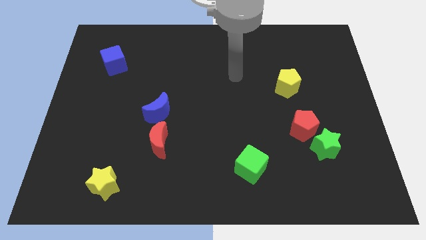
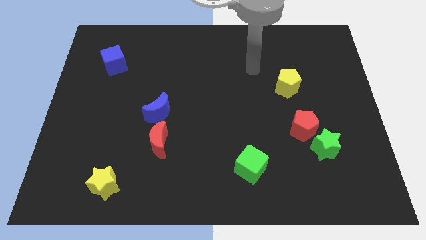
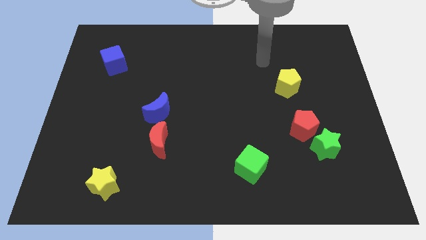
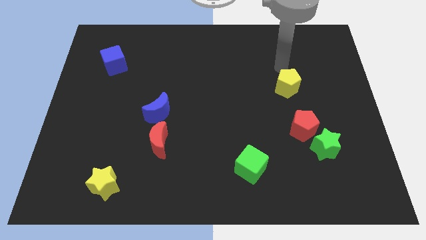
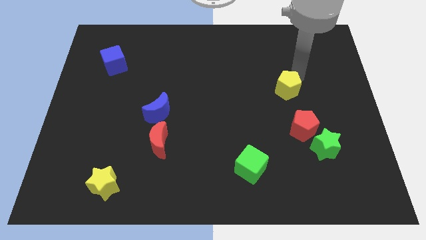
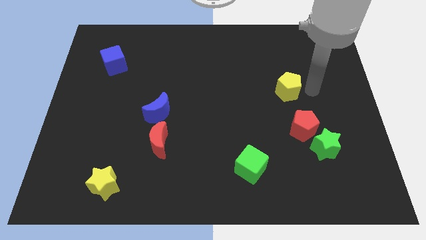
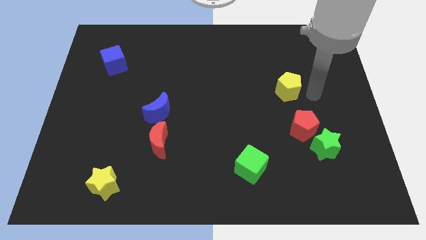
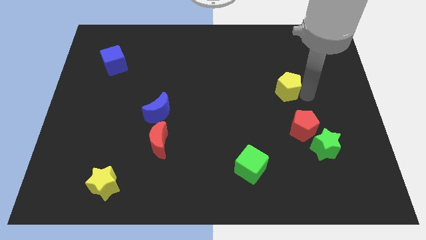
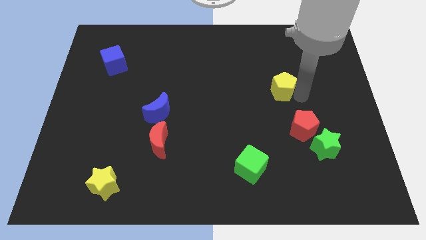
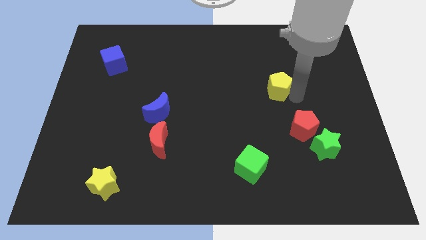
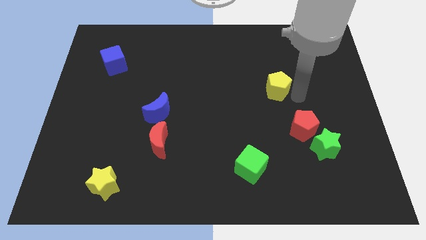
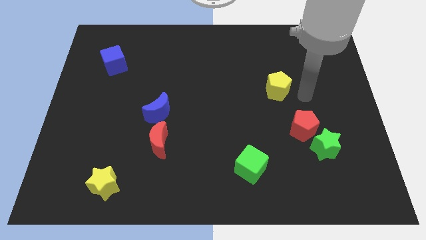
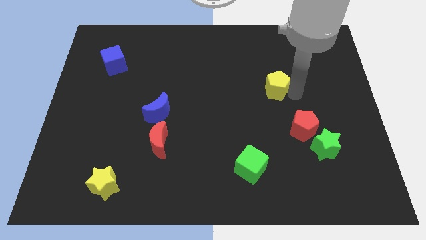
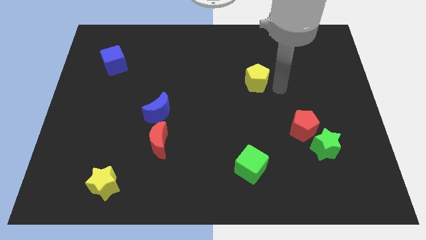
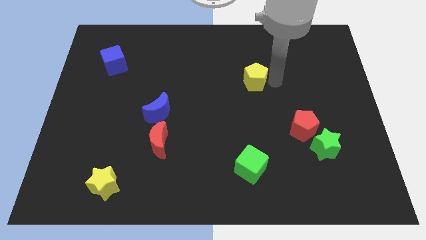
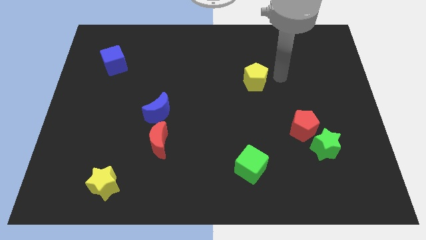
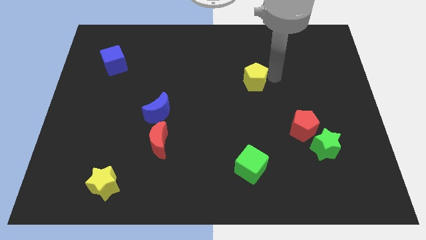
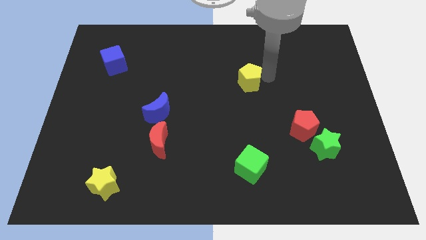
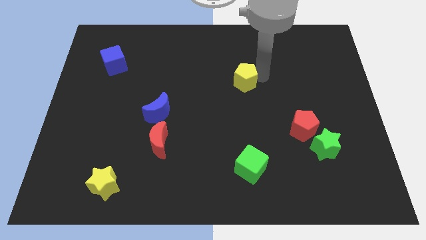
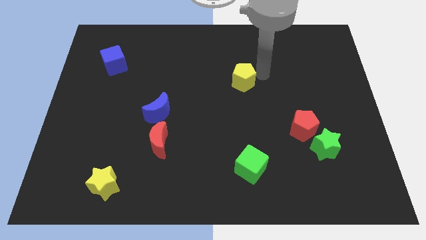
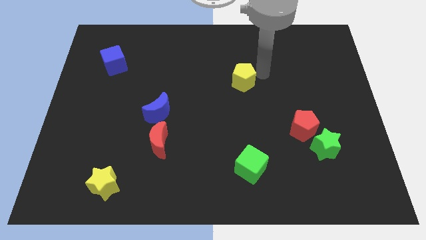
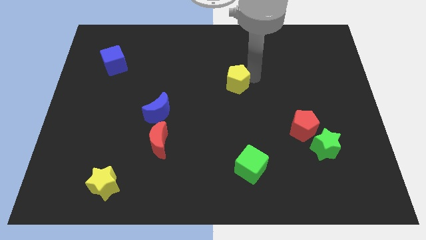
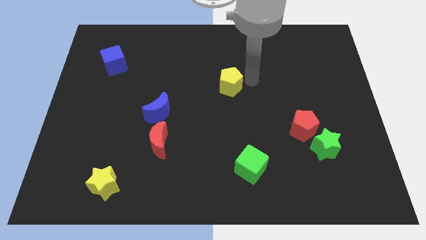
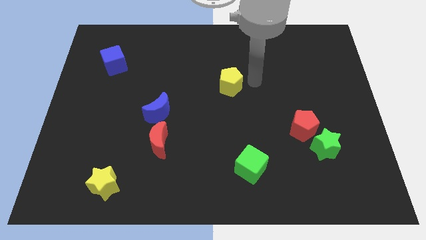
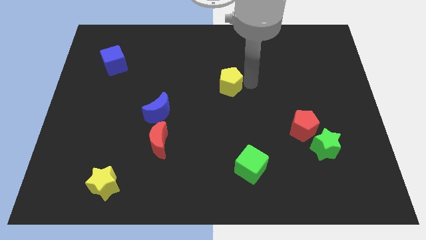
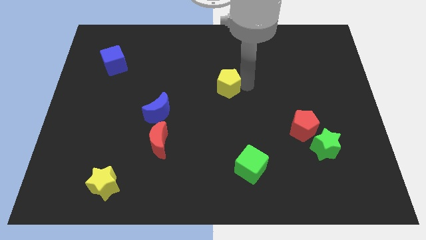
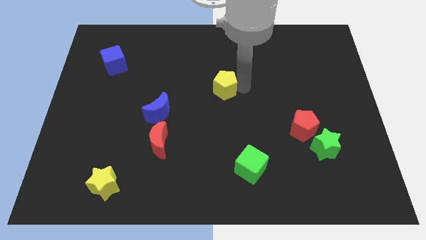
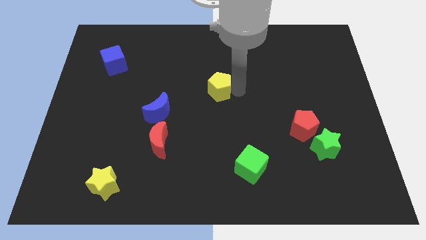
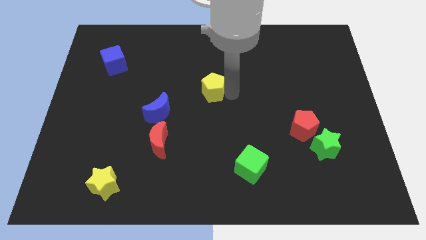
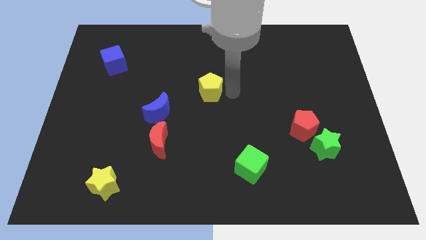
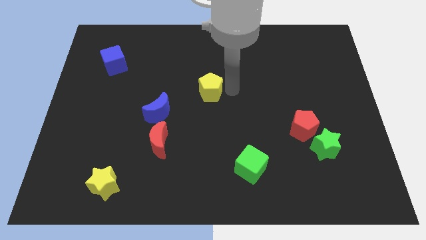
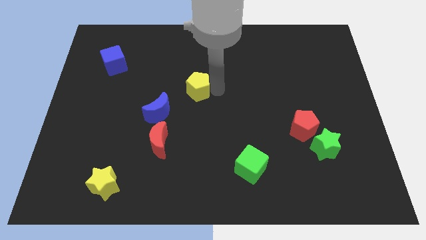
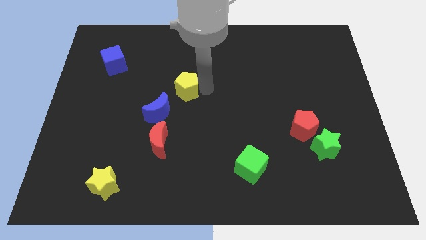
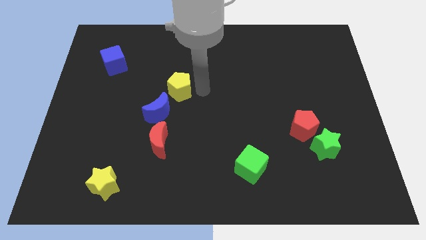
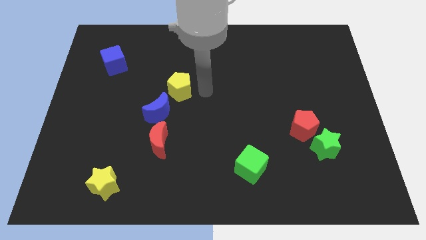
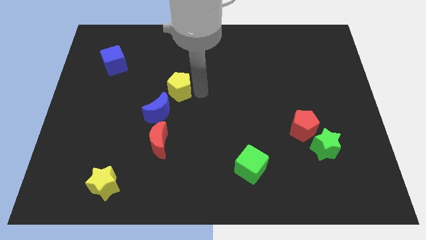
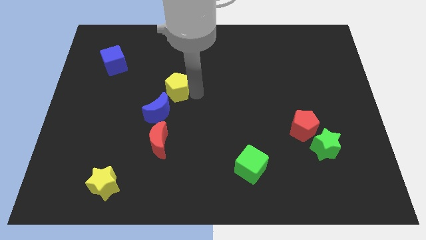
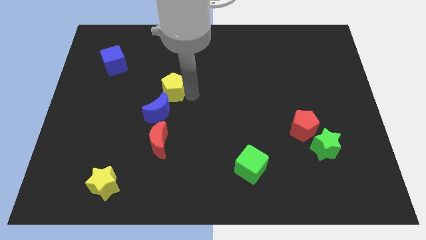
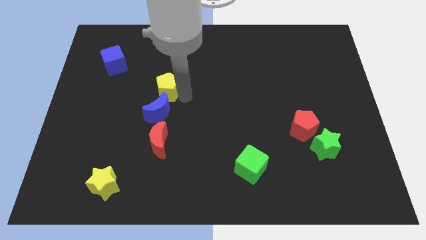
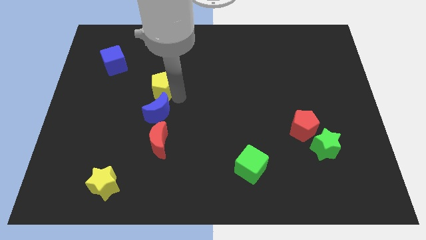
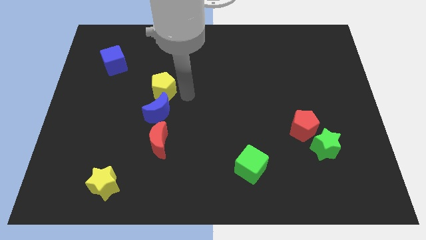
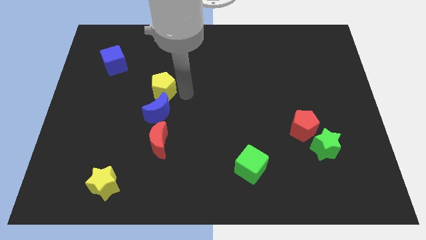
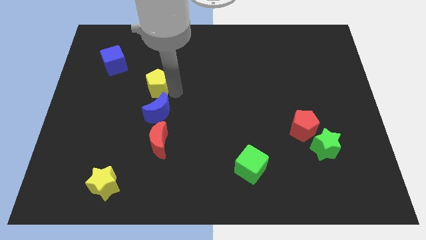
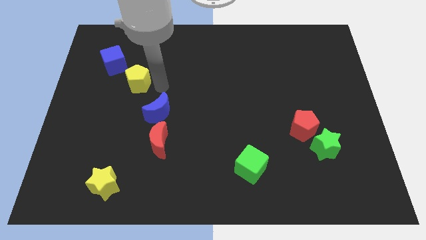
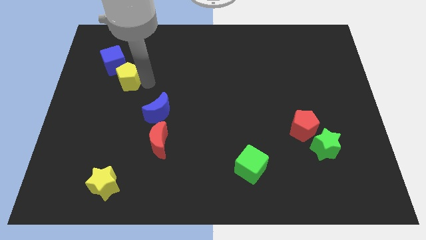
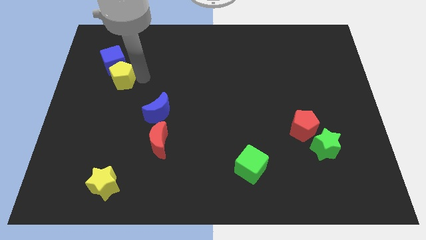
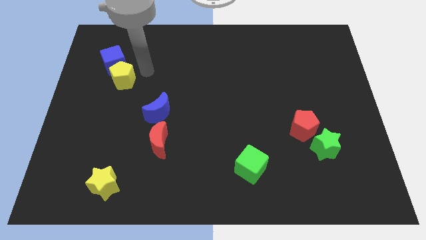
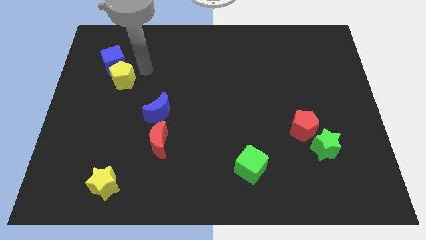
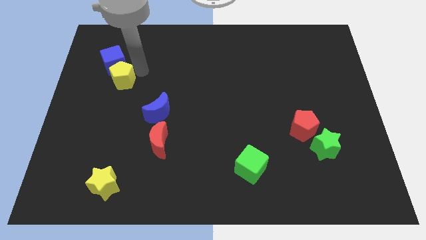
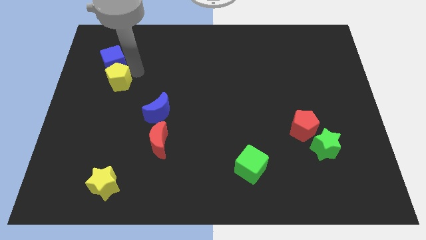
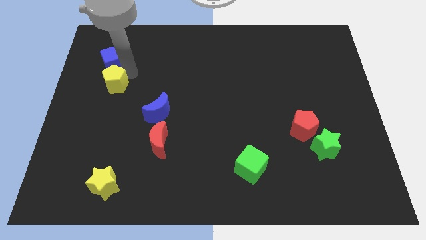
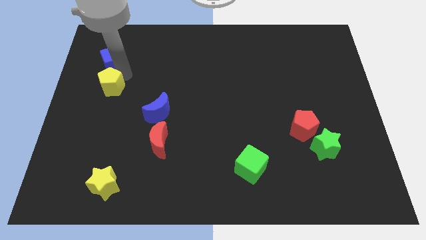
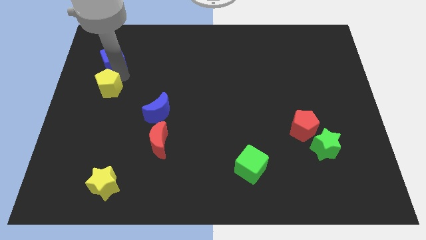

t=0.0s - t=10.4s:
push the yellow pentagon to the left side of the board
